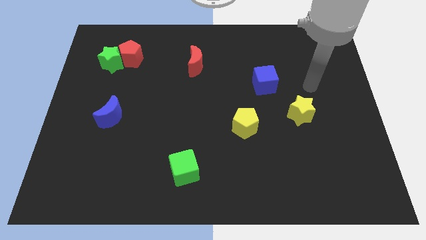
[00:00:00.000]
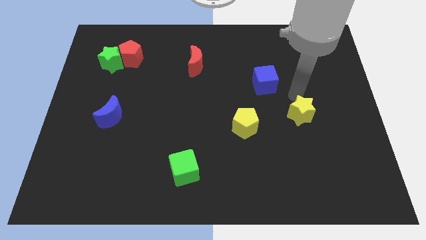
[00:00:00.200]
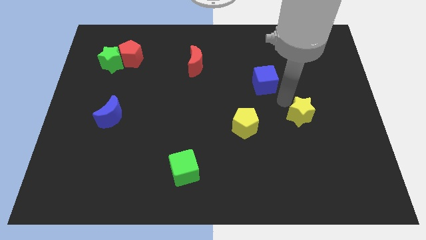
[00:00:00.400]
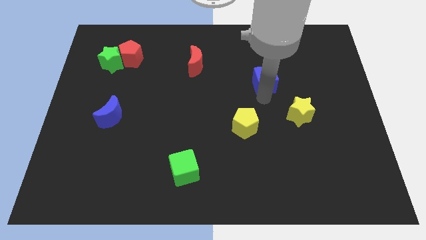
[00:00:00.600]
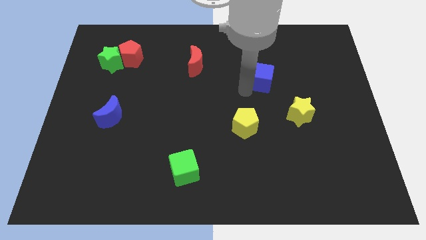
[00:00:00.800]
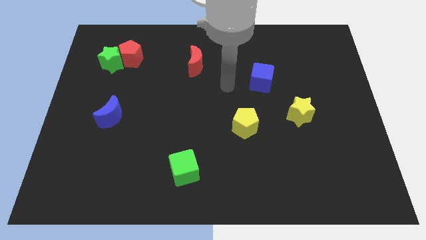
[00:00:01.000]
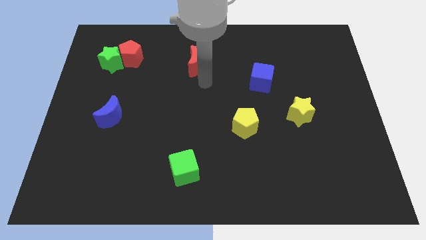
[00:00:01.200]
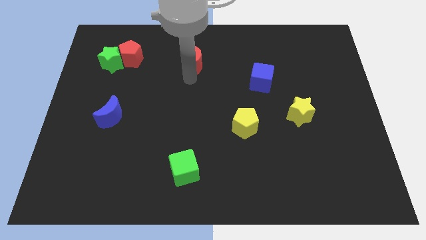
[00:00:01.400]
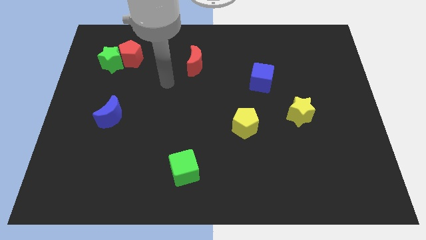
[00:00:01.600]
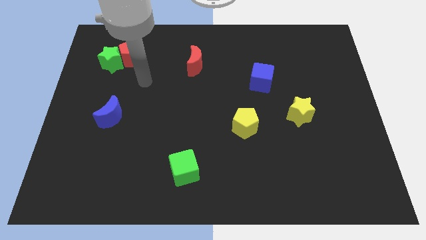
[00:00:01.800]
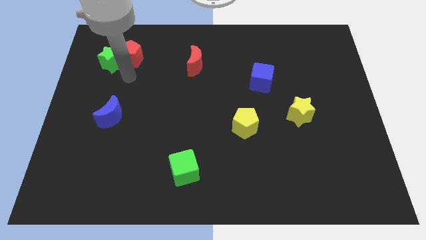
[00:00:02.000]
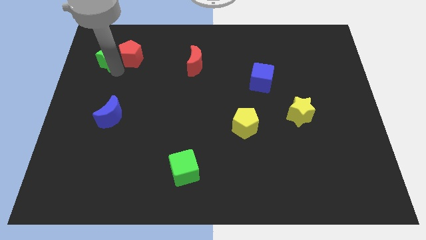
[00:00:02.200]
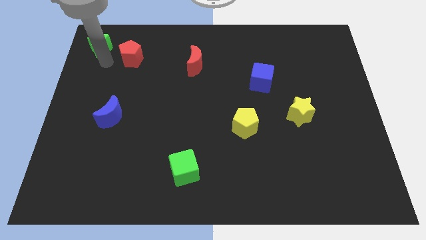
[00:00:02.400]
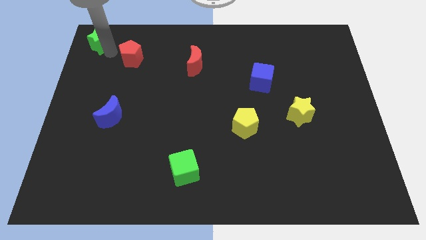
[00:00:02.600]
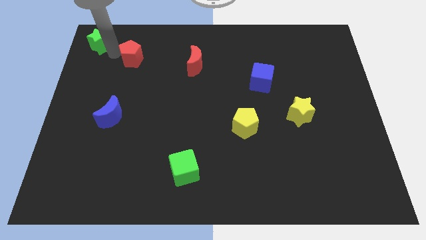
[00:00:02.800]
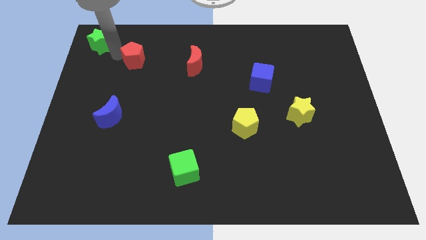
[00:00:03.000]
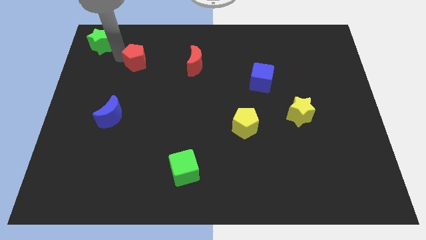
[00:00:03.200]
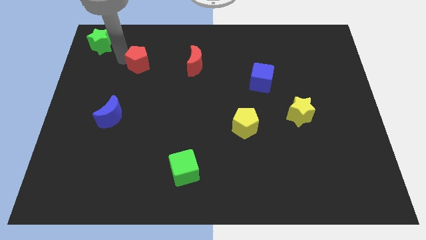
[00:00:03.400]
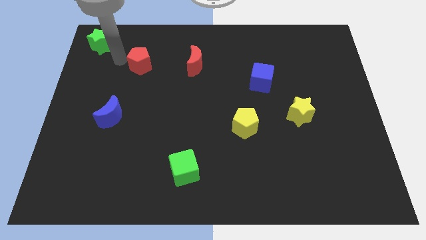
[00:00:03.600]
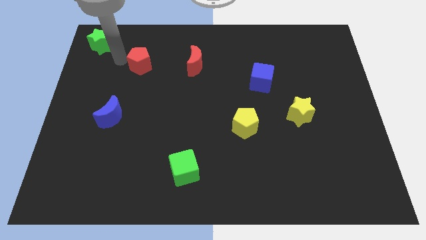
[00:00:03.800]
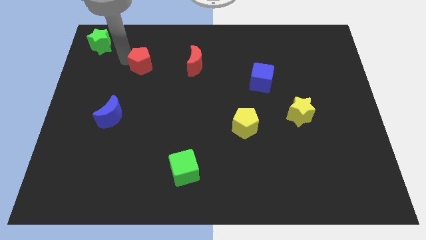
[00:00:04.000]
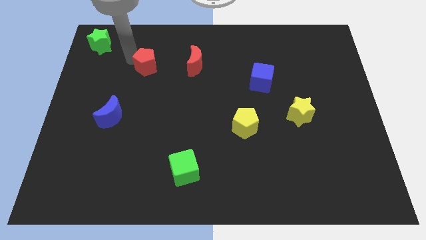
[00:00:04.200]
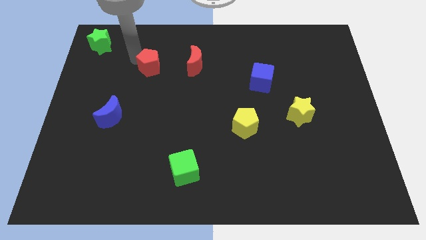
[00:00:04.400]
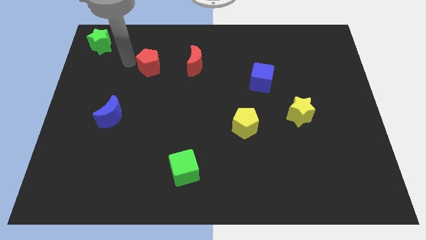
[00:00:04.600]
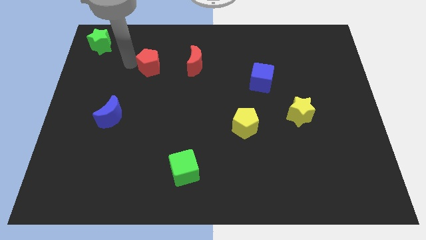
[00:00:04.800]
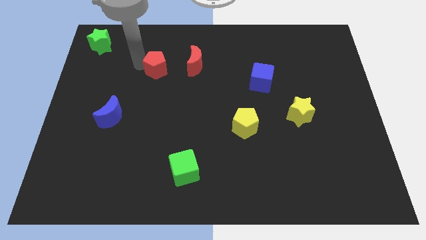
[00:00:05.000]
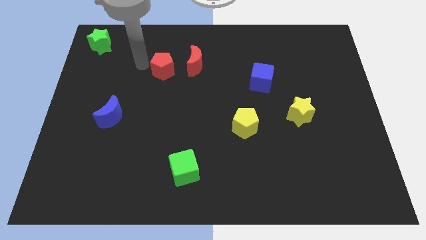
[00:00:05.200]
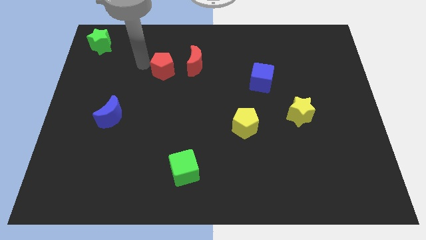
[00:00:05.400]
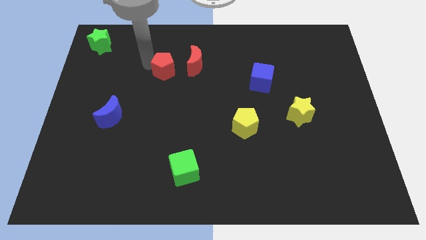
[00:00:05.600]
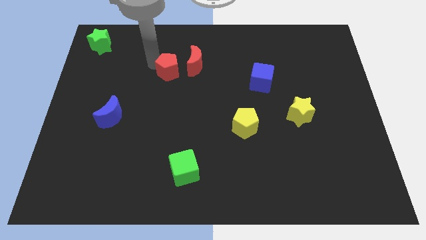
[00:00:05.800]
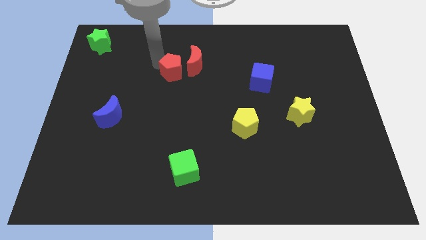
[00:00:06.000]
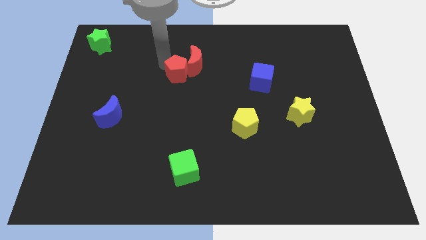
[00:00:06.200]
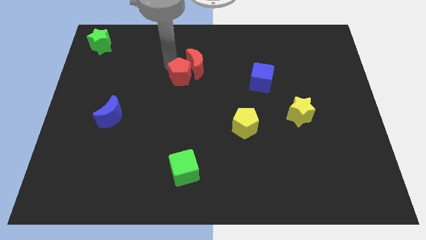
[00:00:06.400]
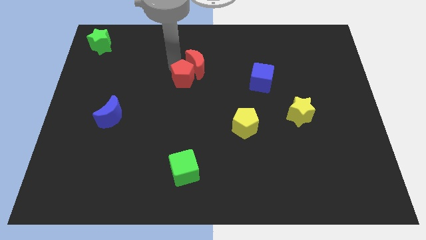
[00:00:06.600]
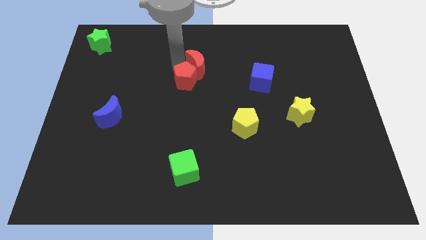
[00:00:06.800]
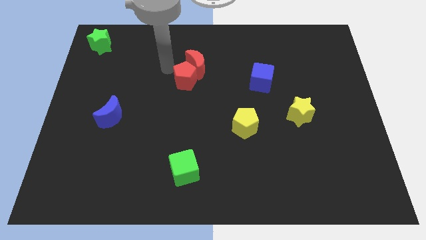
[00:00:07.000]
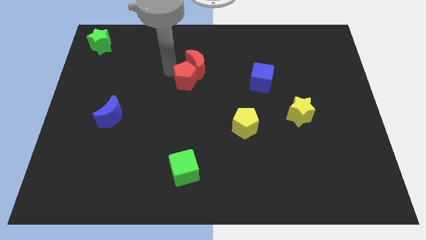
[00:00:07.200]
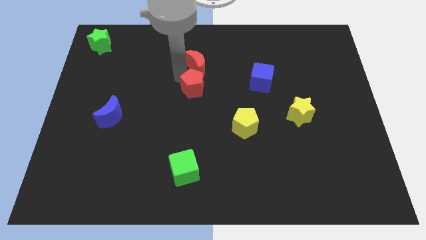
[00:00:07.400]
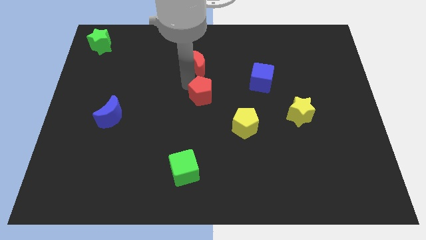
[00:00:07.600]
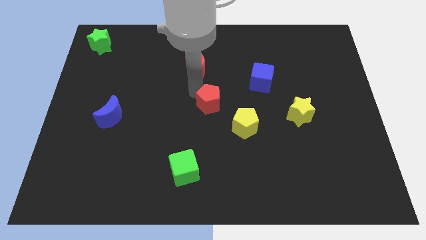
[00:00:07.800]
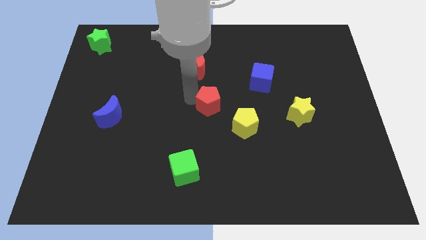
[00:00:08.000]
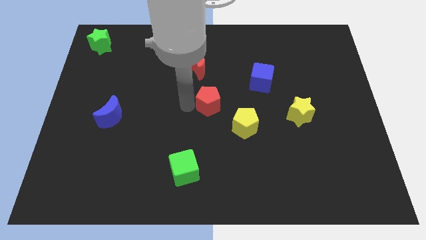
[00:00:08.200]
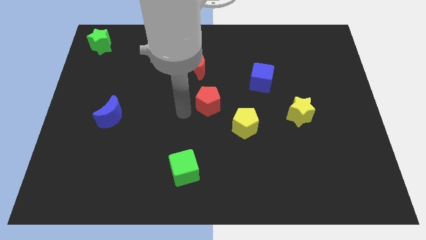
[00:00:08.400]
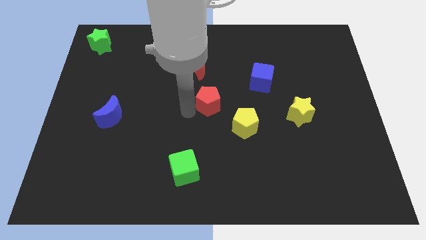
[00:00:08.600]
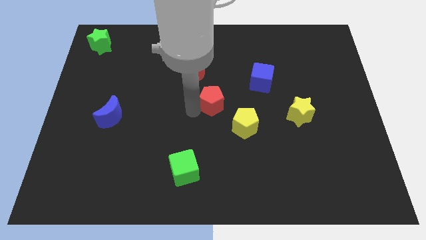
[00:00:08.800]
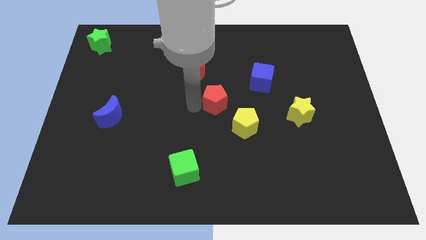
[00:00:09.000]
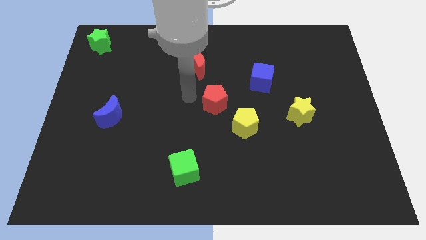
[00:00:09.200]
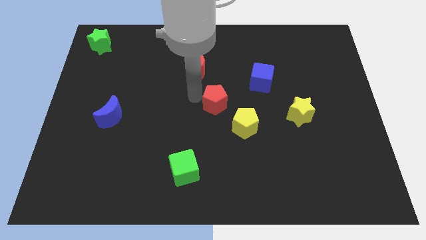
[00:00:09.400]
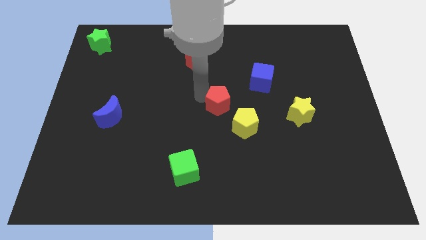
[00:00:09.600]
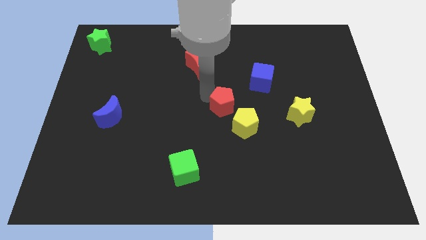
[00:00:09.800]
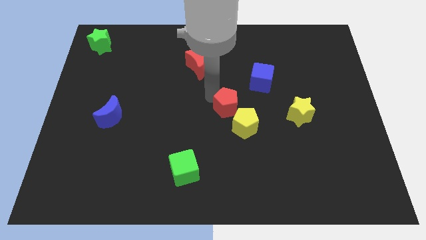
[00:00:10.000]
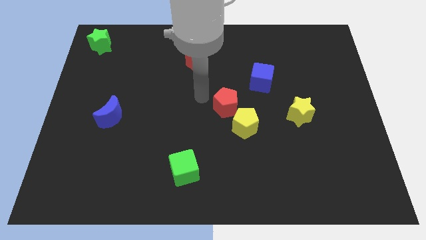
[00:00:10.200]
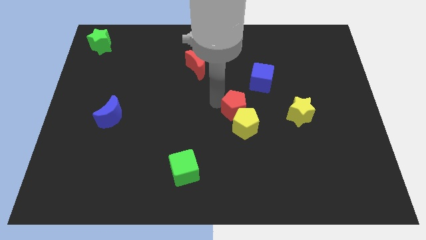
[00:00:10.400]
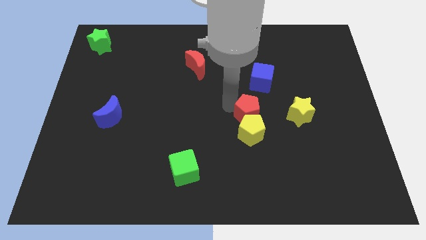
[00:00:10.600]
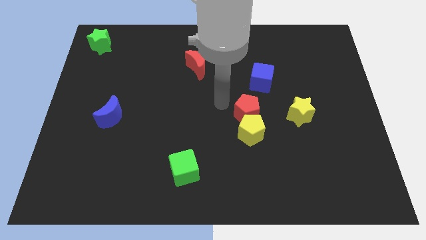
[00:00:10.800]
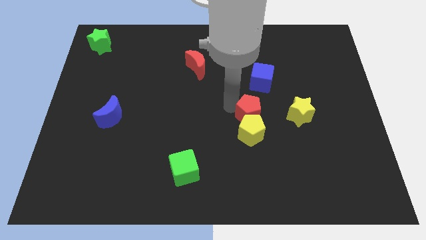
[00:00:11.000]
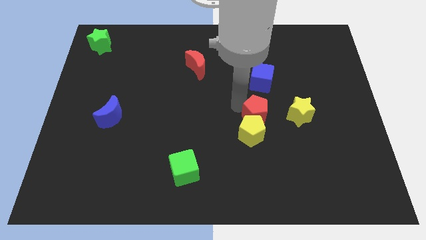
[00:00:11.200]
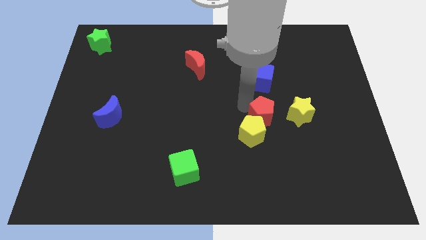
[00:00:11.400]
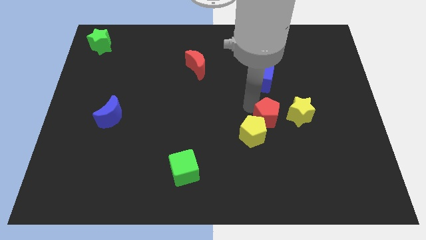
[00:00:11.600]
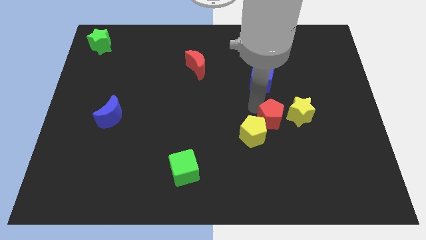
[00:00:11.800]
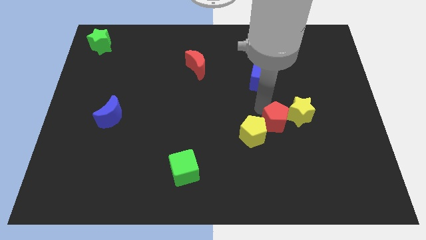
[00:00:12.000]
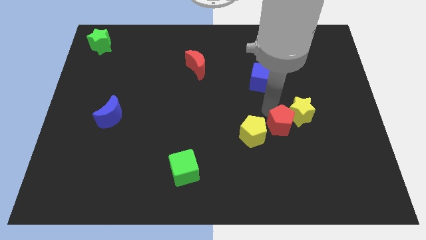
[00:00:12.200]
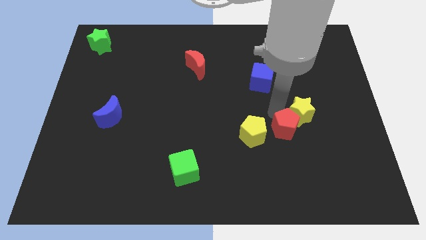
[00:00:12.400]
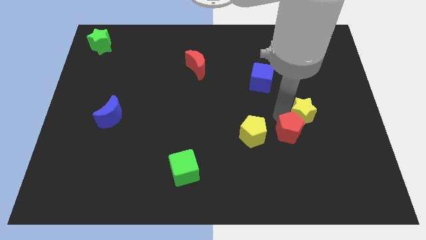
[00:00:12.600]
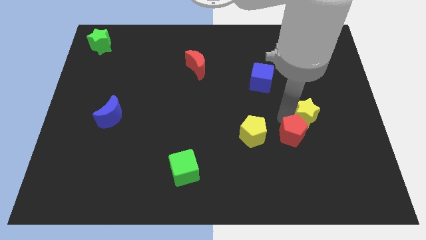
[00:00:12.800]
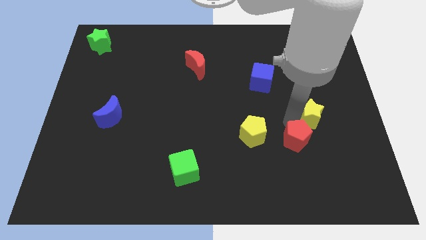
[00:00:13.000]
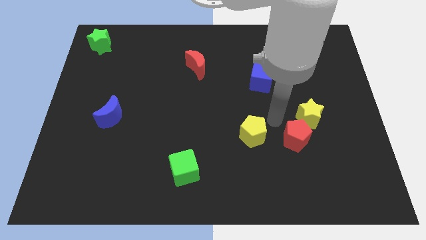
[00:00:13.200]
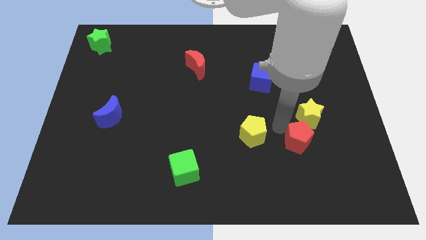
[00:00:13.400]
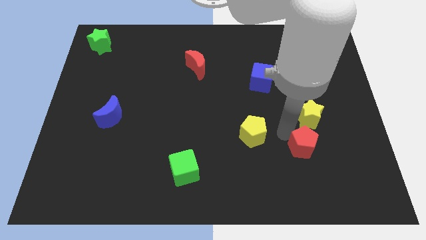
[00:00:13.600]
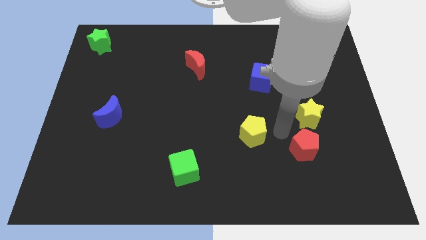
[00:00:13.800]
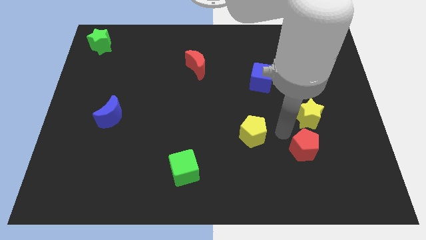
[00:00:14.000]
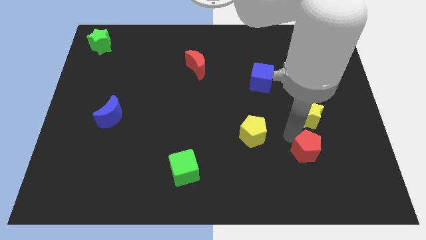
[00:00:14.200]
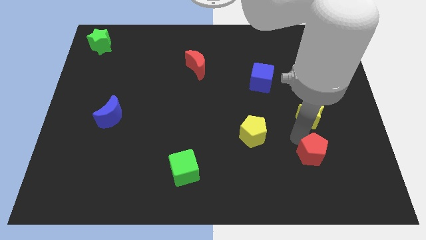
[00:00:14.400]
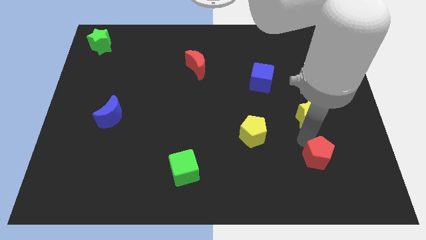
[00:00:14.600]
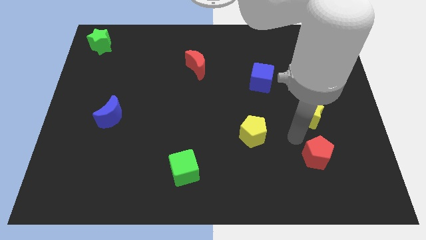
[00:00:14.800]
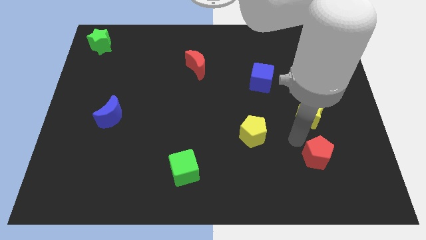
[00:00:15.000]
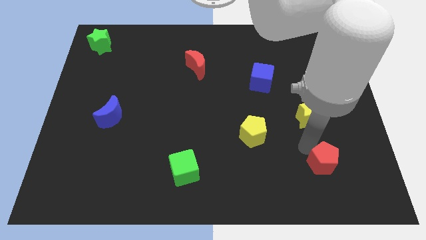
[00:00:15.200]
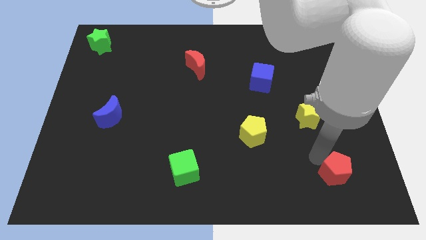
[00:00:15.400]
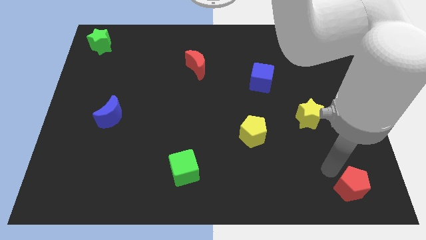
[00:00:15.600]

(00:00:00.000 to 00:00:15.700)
push the red pentagon to the bottom right
